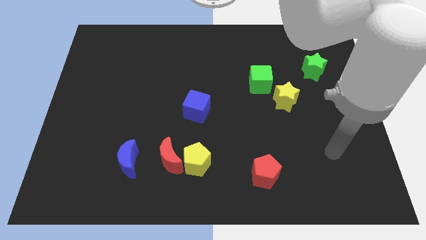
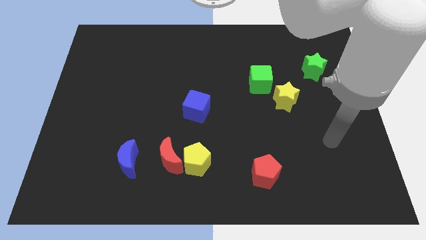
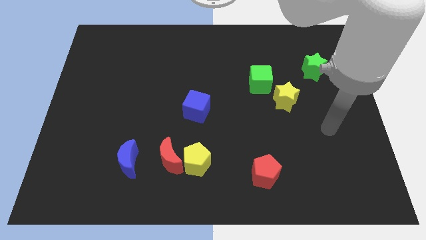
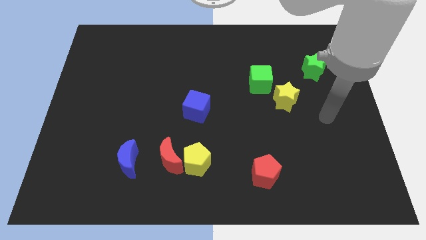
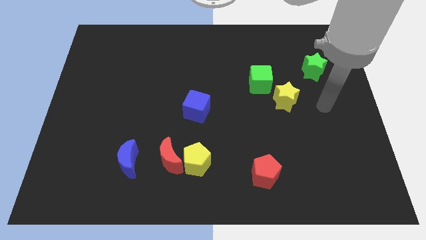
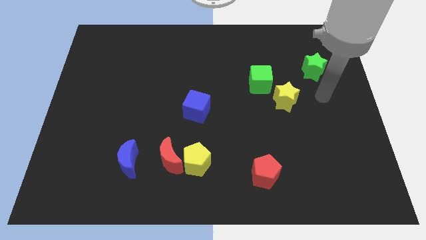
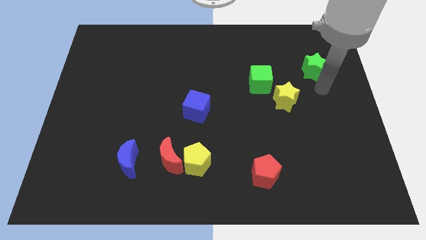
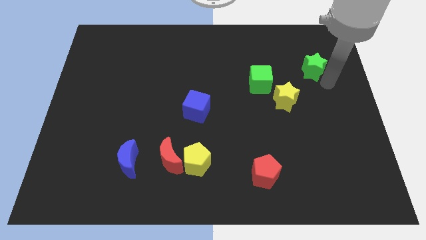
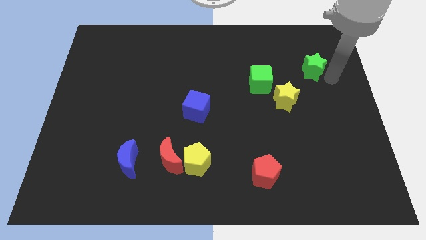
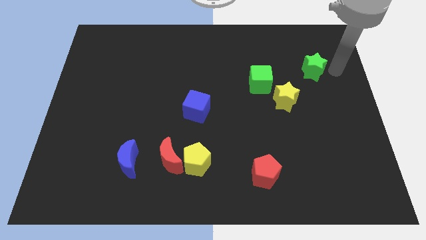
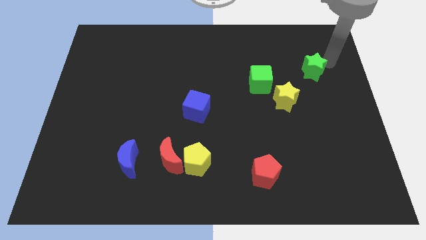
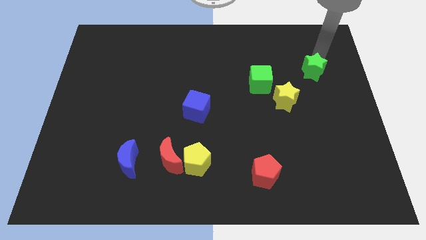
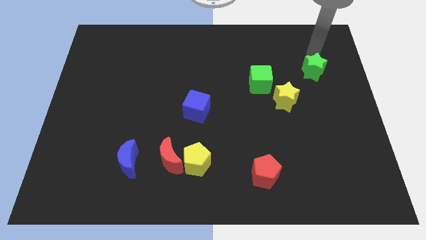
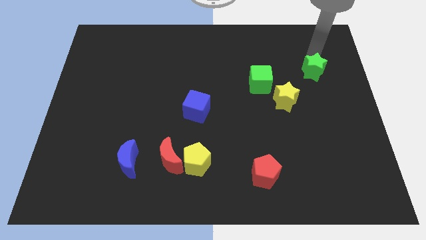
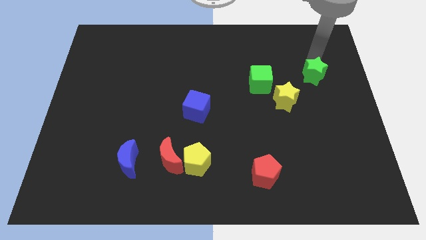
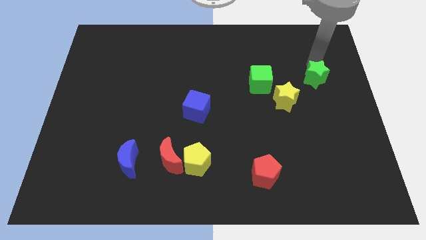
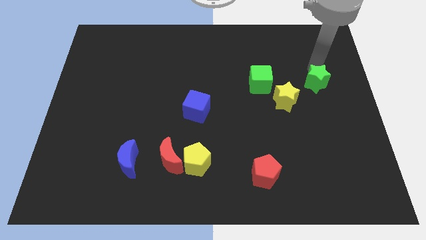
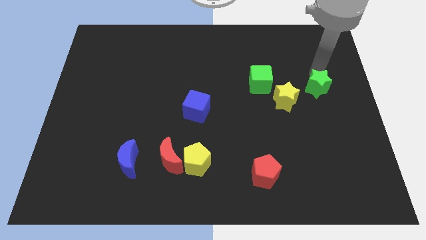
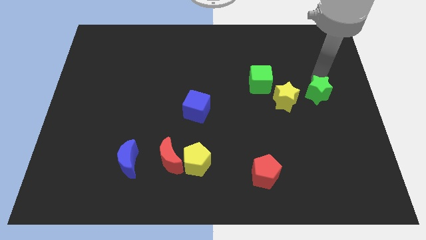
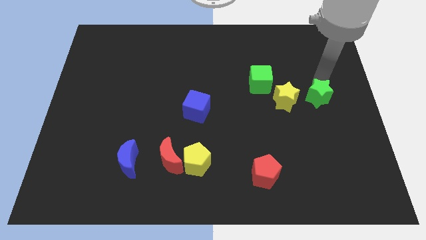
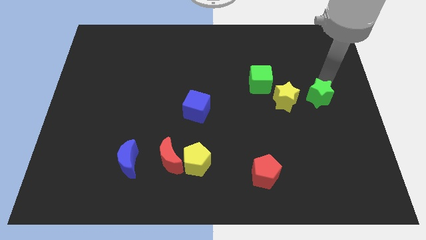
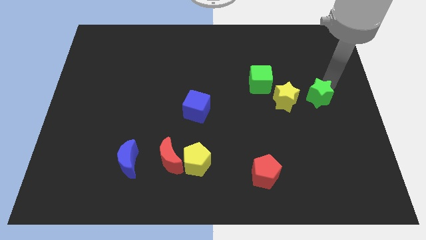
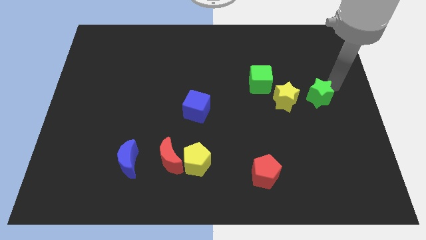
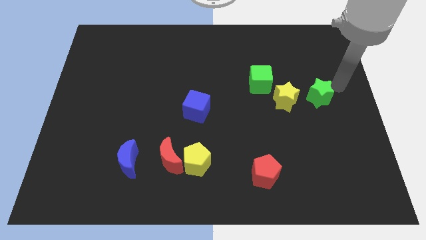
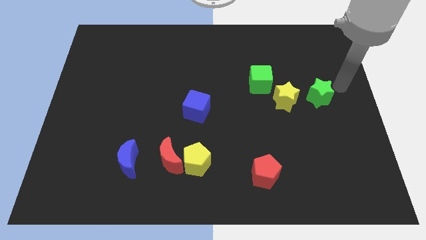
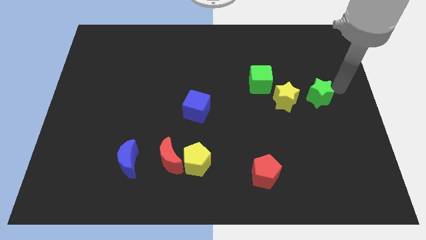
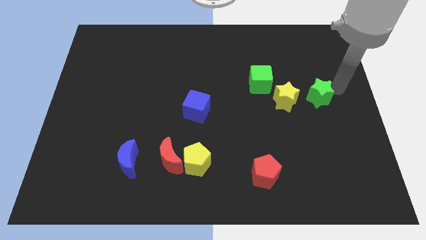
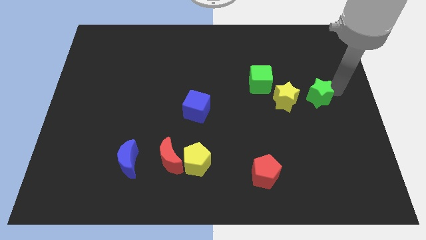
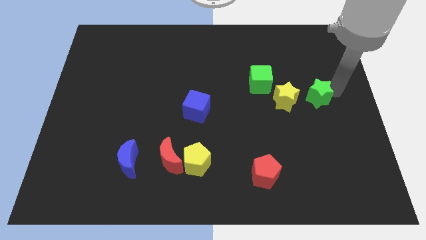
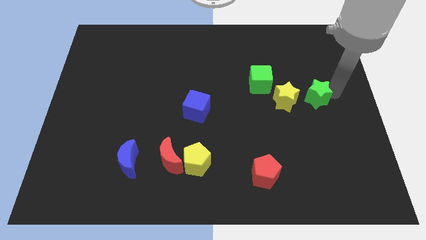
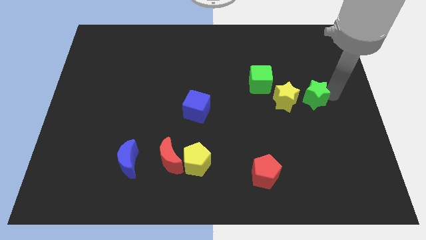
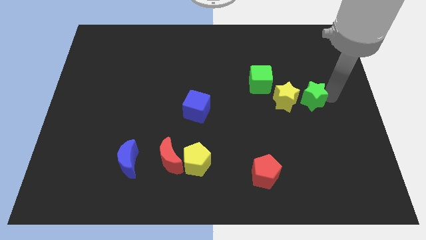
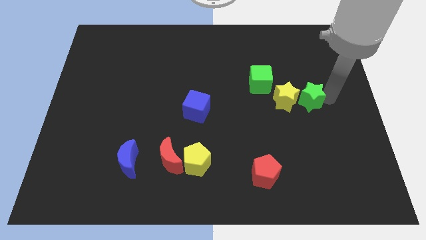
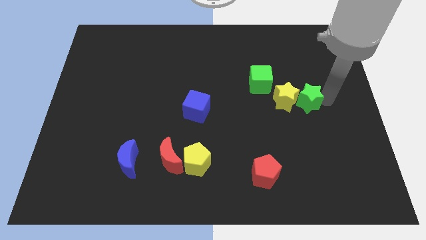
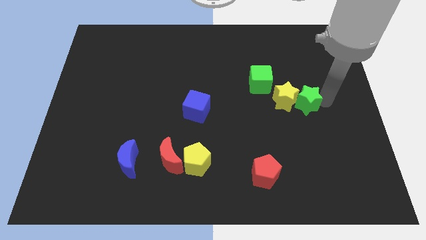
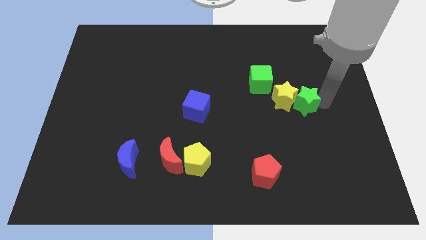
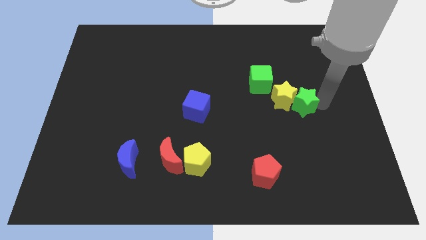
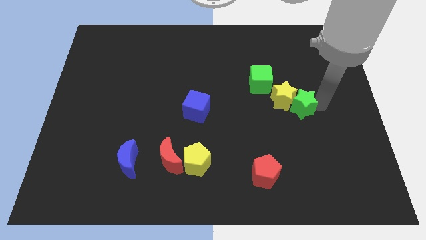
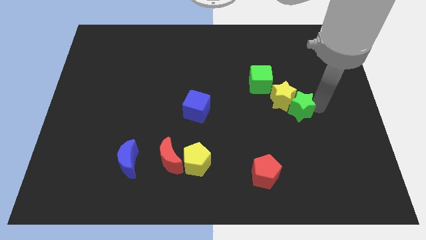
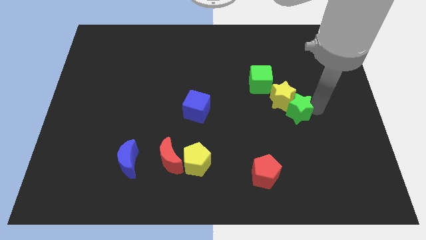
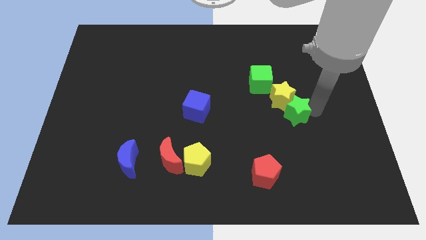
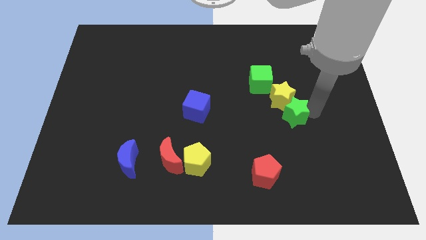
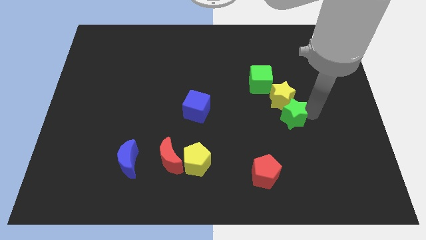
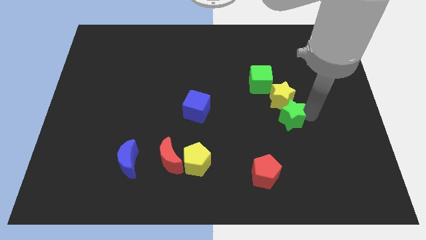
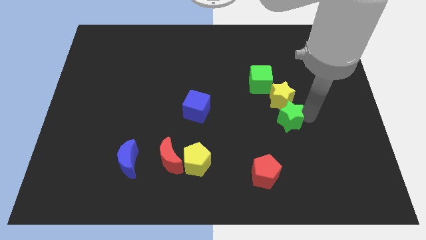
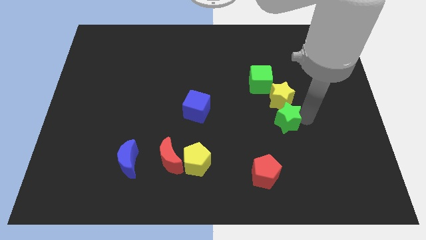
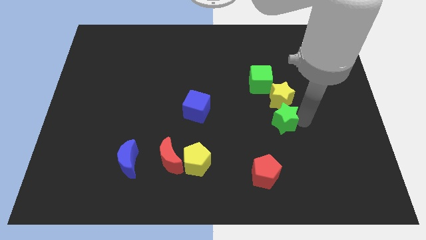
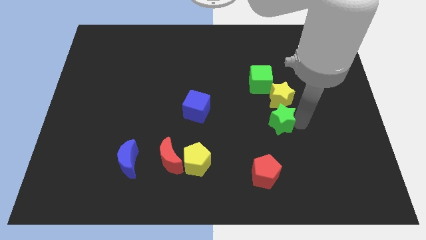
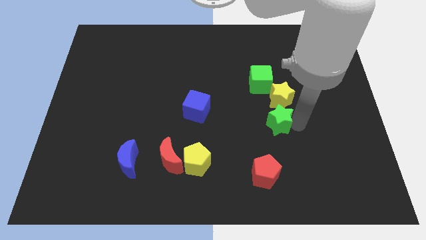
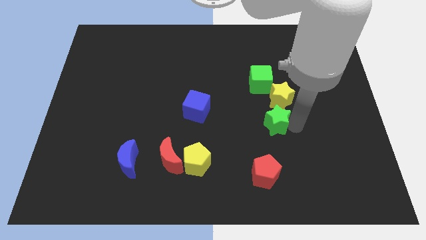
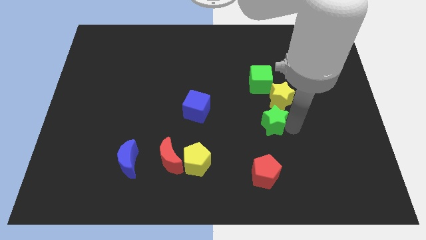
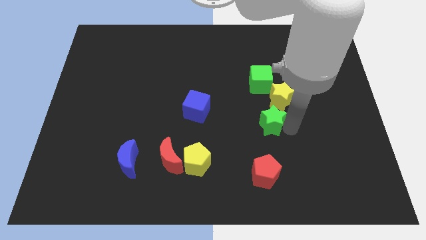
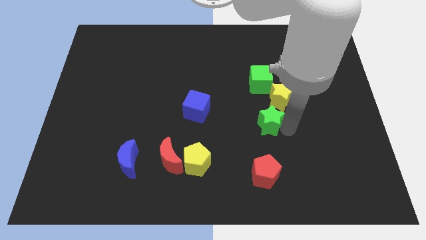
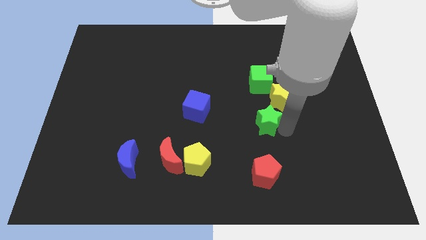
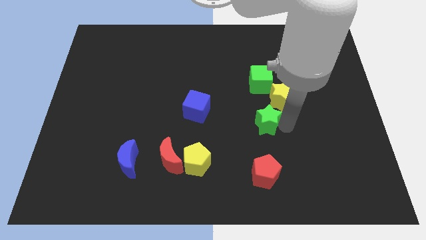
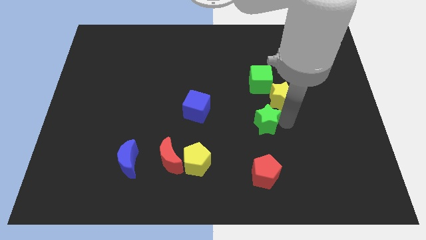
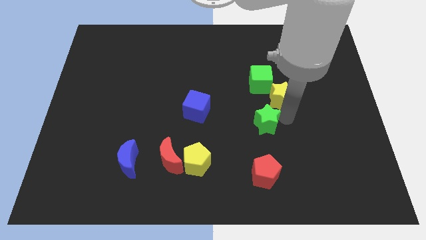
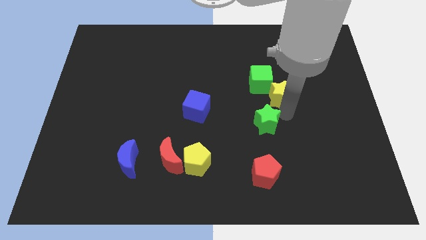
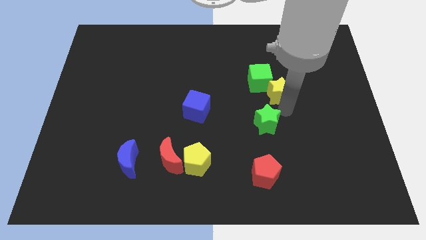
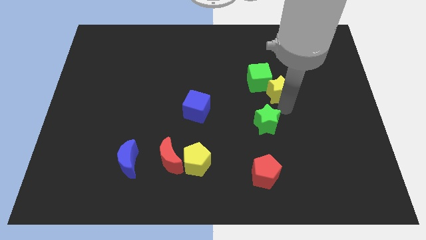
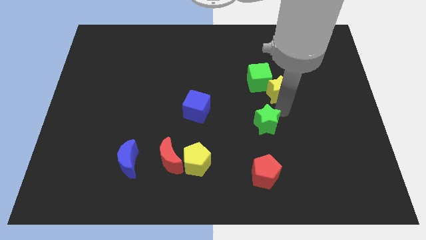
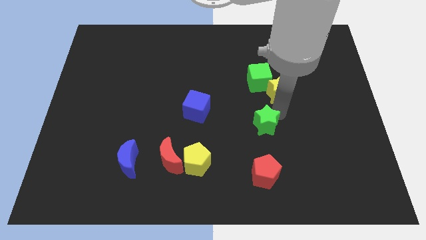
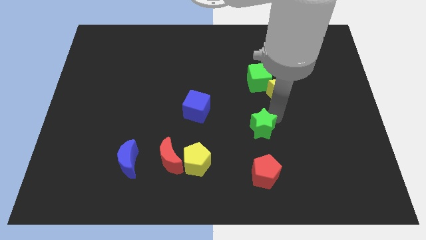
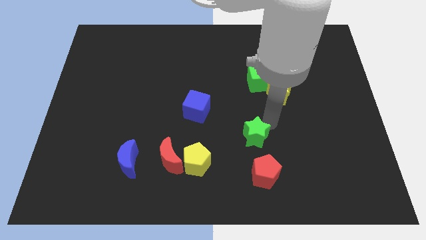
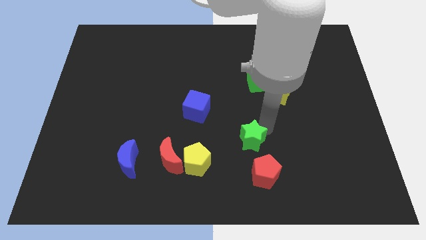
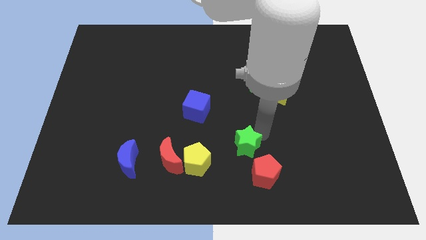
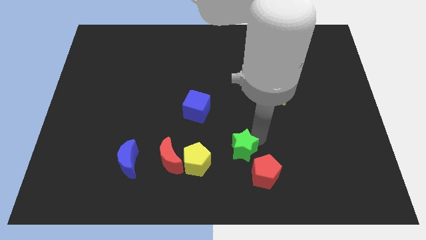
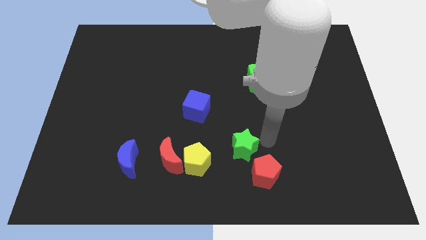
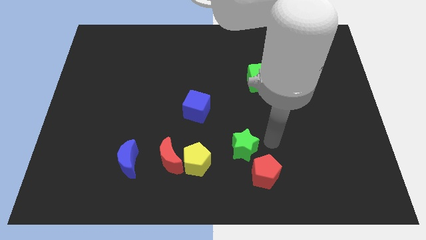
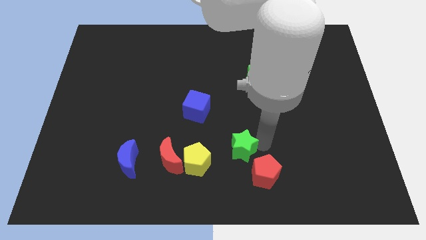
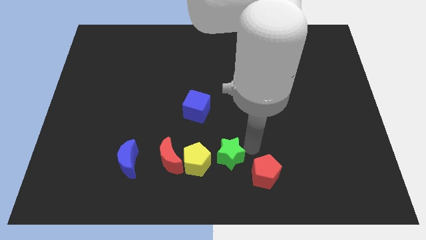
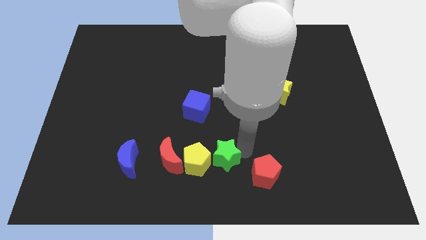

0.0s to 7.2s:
move the green star to the yellow pentagon

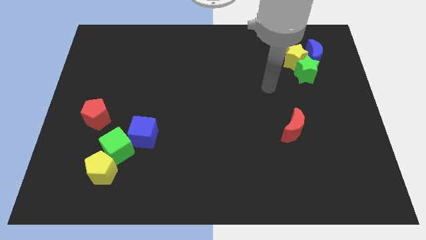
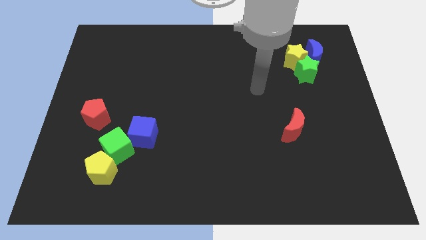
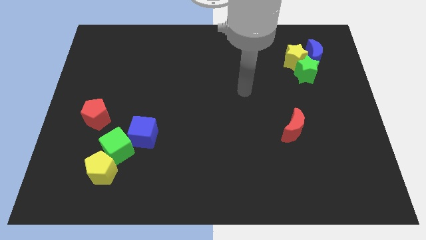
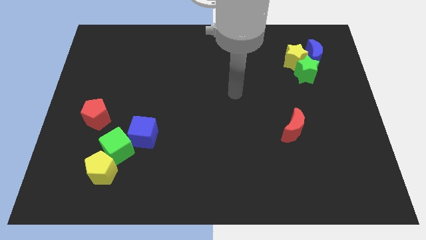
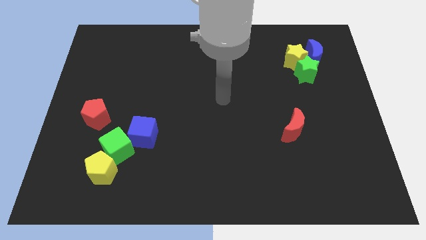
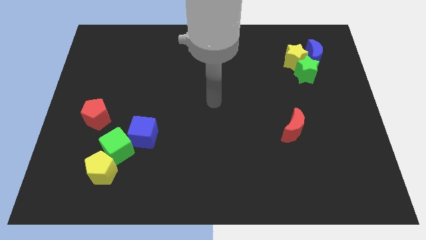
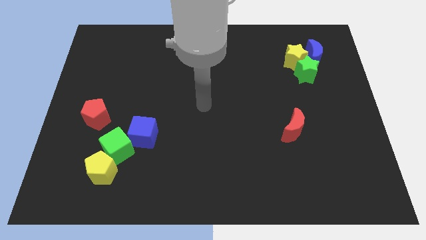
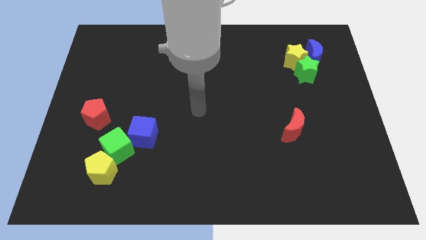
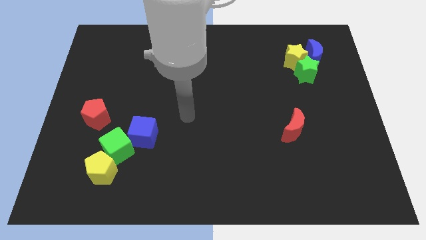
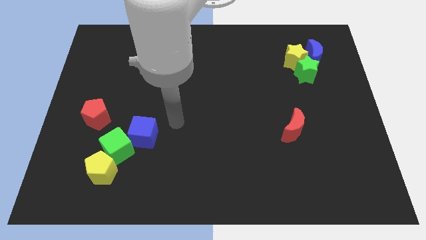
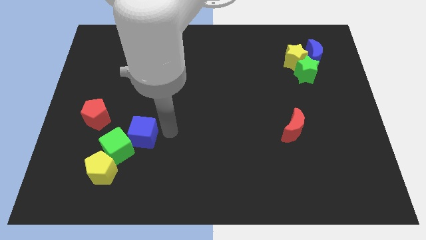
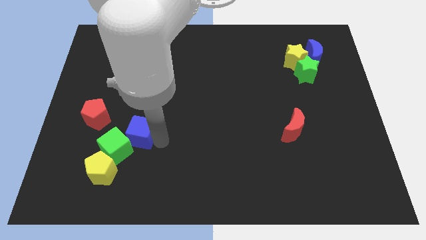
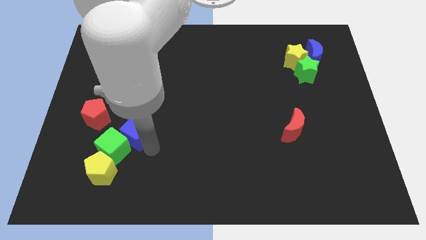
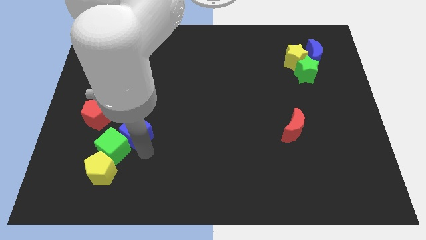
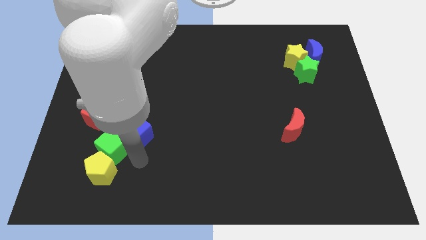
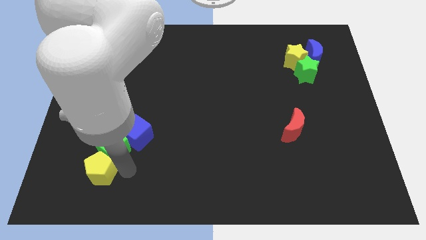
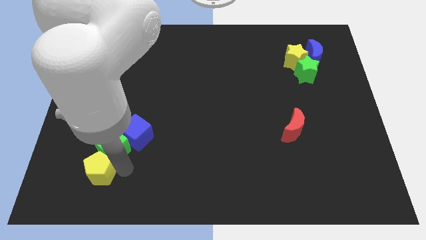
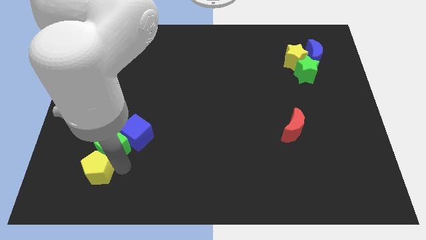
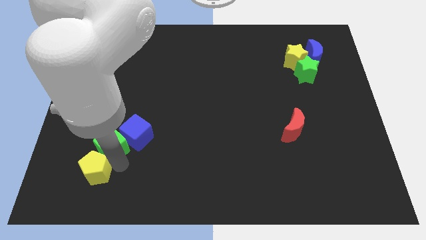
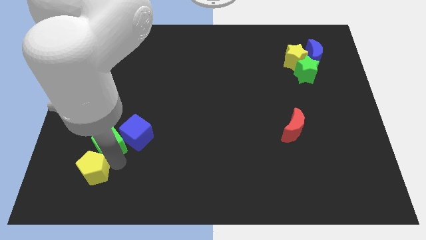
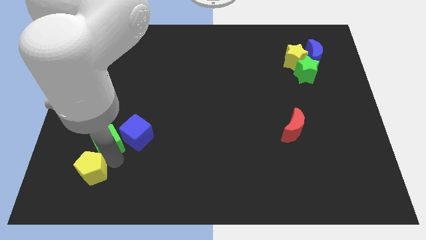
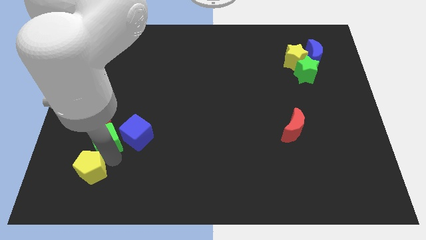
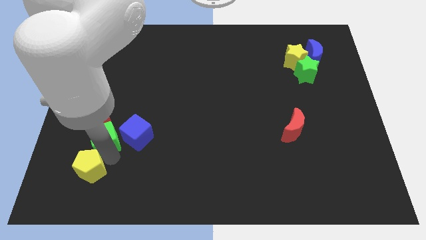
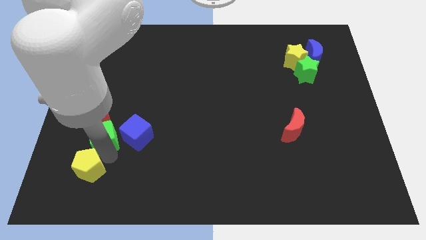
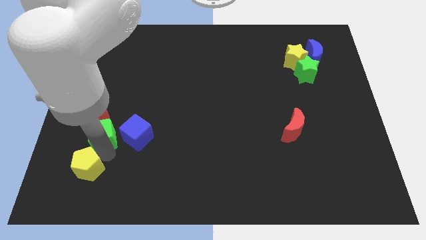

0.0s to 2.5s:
move the green cube towards the red pentagon
